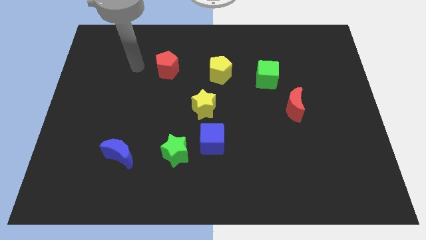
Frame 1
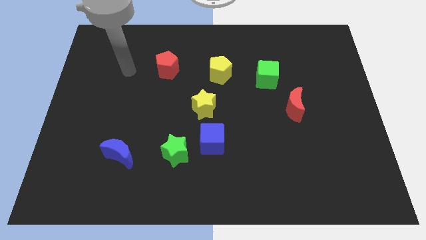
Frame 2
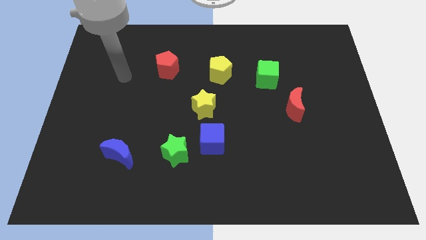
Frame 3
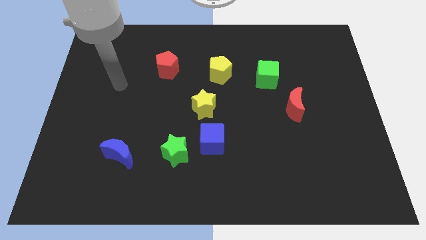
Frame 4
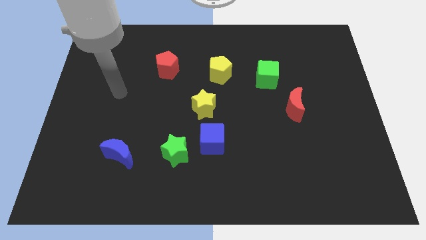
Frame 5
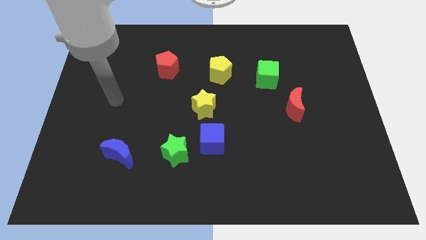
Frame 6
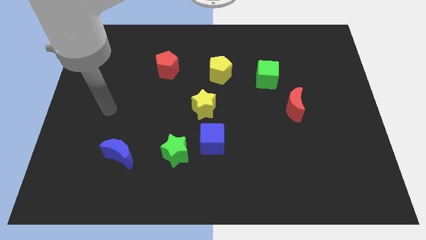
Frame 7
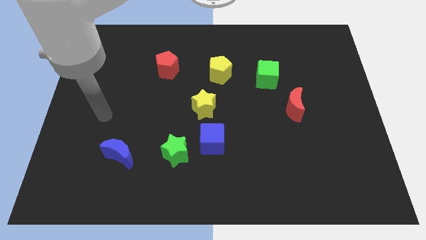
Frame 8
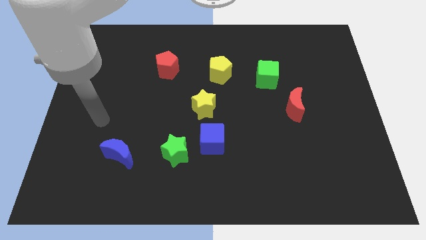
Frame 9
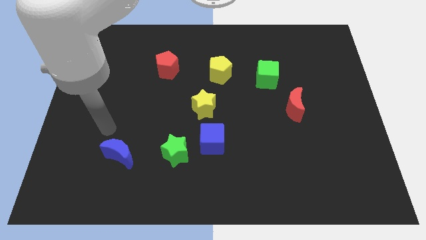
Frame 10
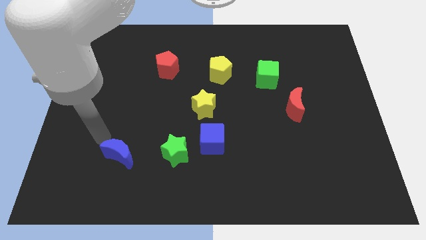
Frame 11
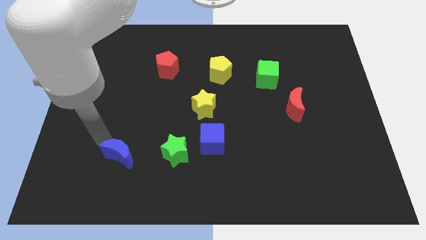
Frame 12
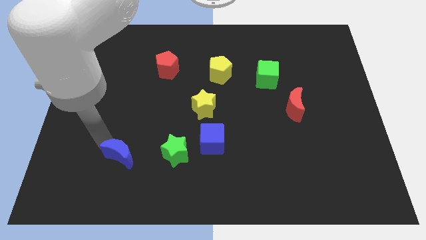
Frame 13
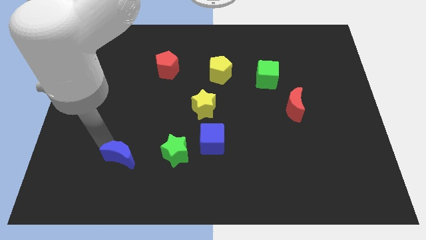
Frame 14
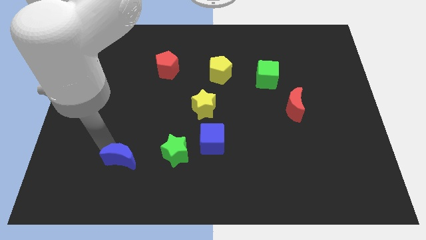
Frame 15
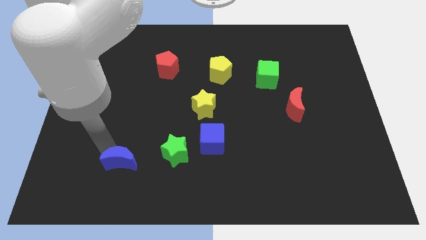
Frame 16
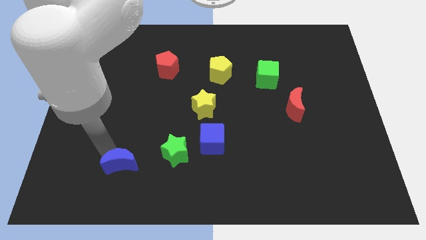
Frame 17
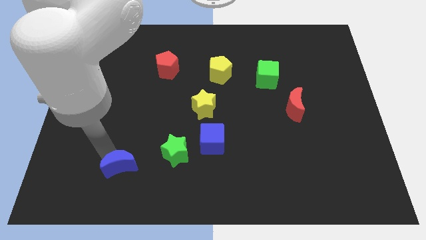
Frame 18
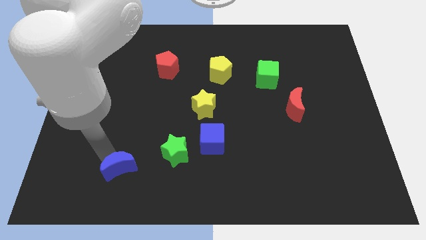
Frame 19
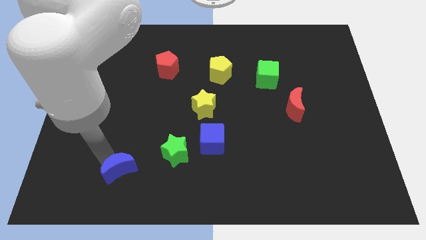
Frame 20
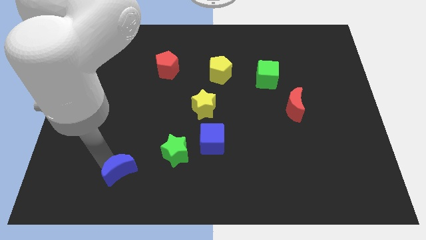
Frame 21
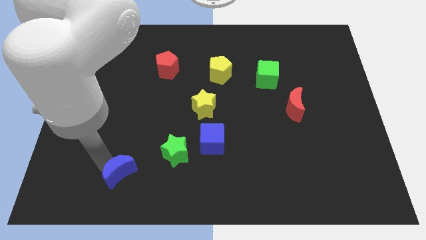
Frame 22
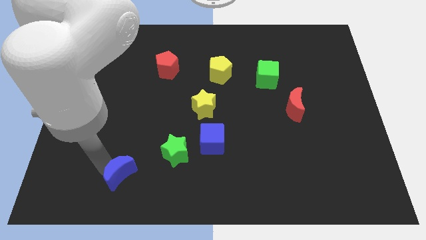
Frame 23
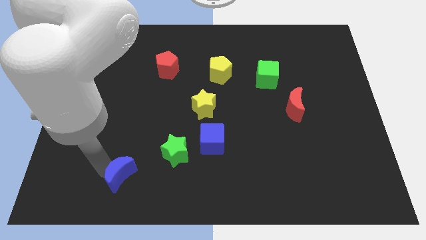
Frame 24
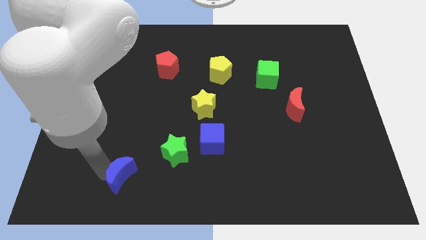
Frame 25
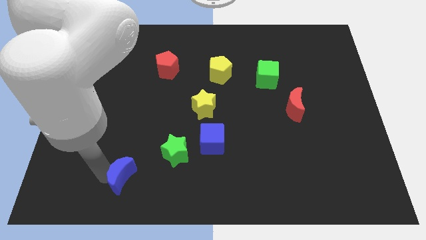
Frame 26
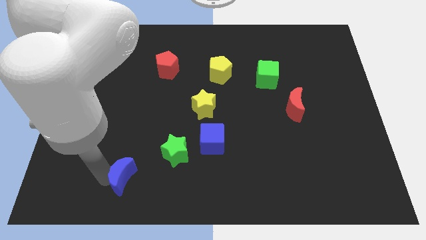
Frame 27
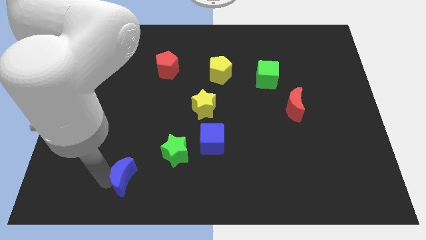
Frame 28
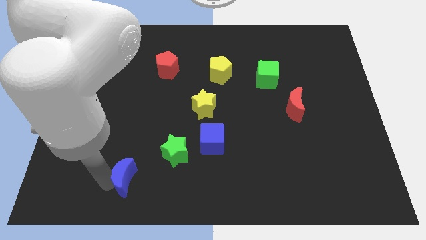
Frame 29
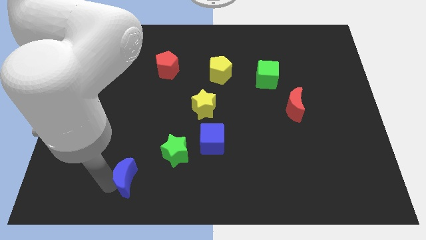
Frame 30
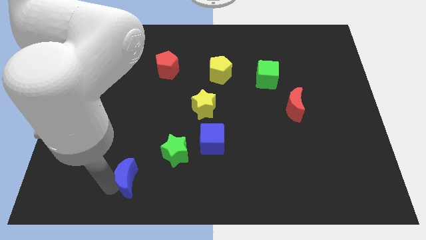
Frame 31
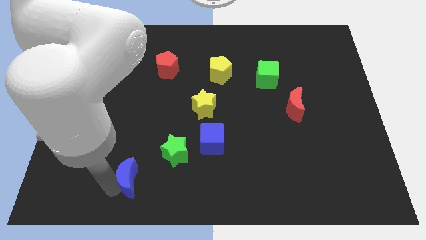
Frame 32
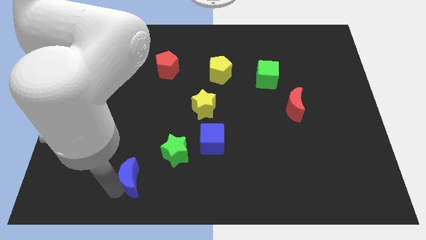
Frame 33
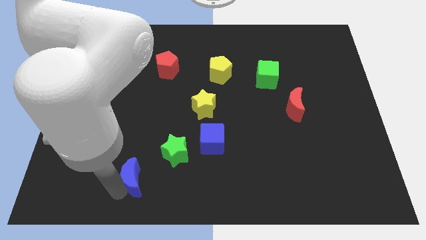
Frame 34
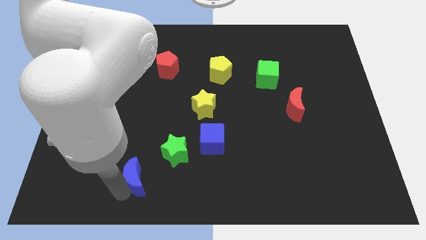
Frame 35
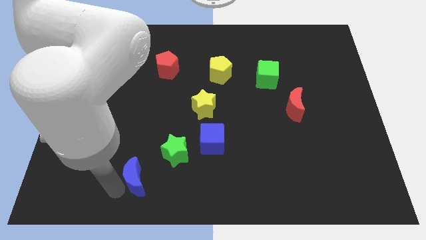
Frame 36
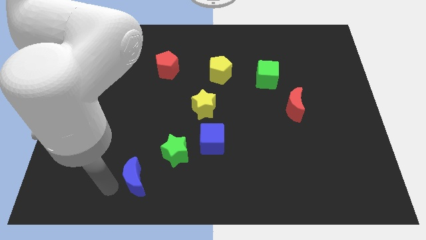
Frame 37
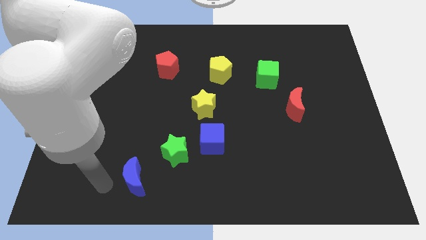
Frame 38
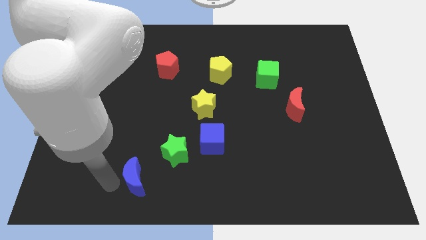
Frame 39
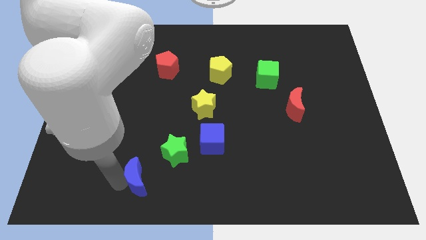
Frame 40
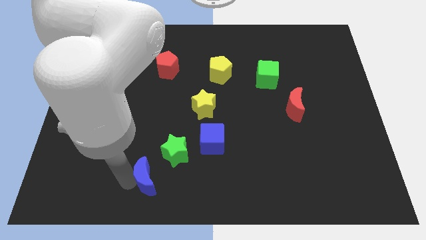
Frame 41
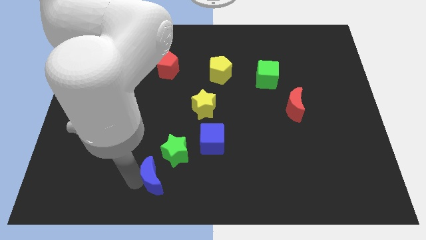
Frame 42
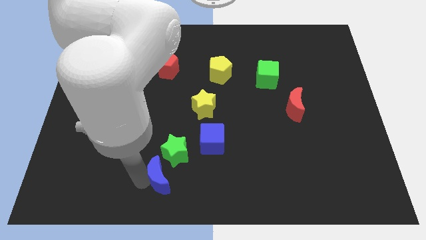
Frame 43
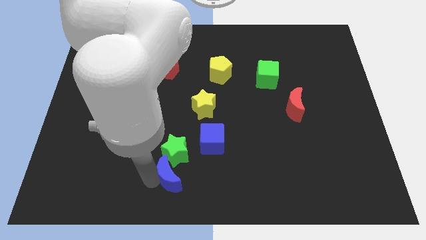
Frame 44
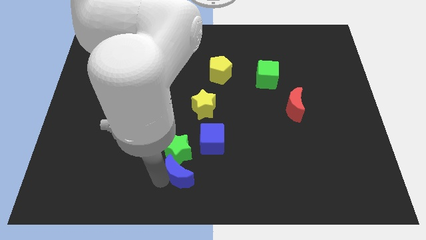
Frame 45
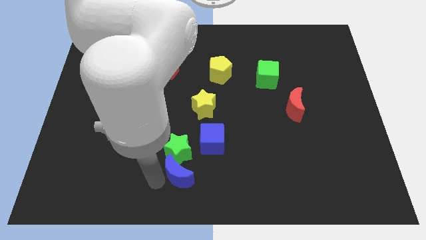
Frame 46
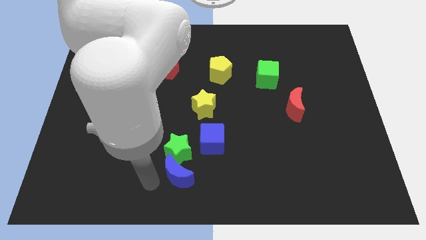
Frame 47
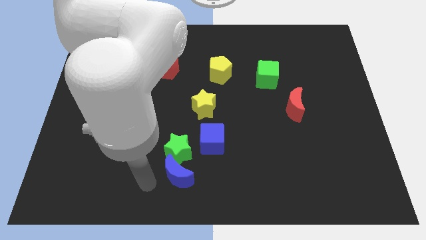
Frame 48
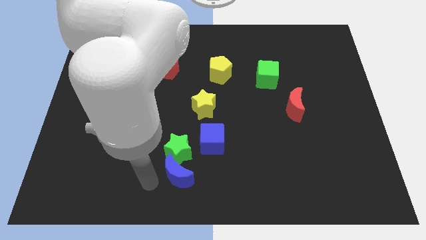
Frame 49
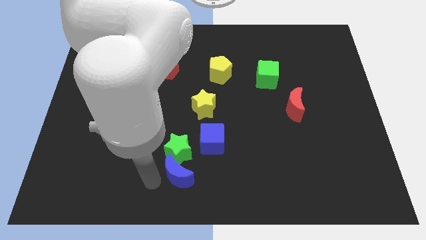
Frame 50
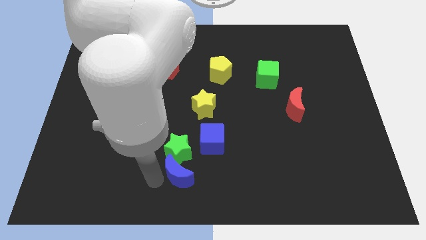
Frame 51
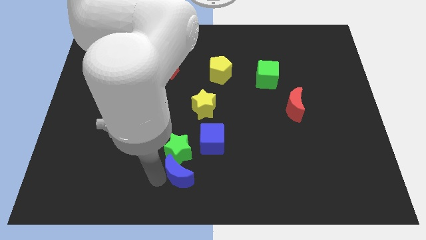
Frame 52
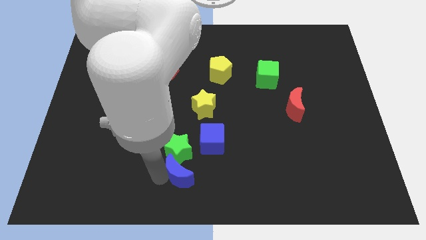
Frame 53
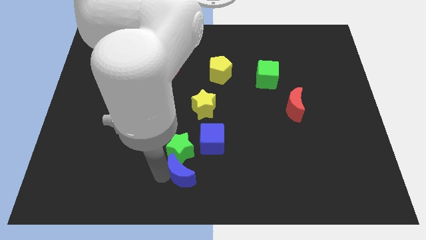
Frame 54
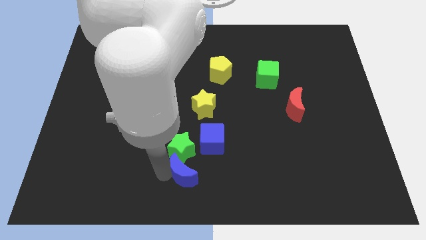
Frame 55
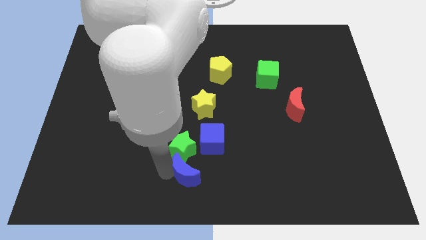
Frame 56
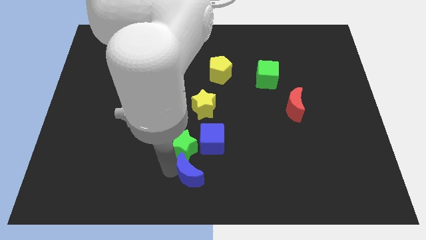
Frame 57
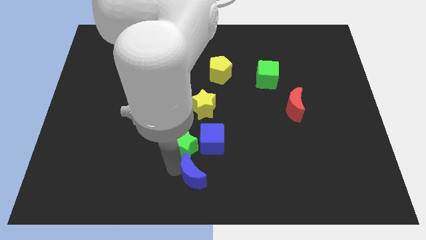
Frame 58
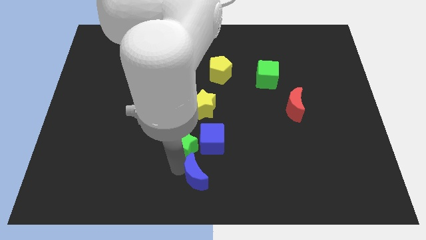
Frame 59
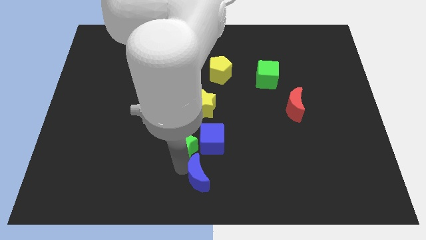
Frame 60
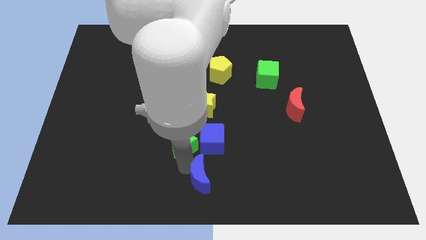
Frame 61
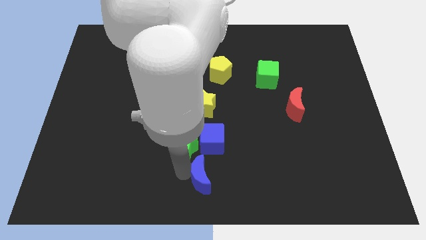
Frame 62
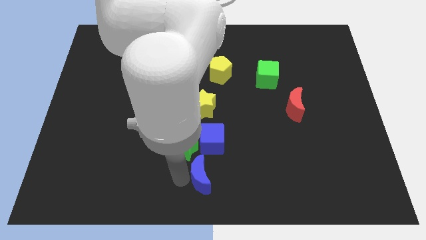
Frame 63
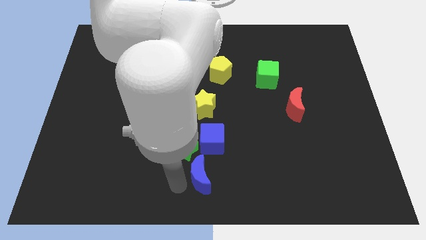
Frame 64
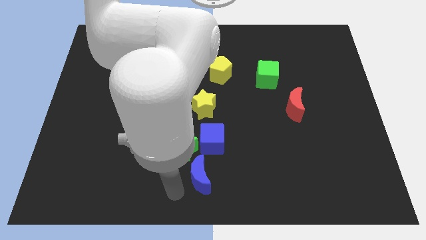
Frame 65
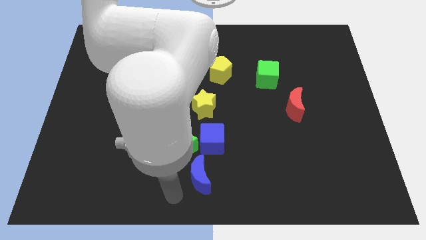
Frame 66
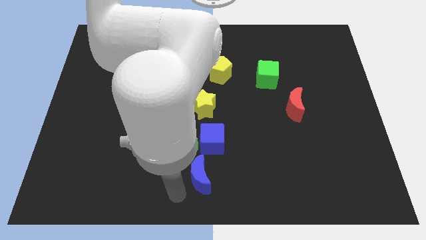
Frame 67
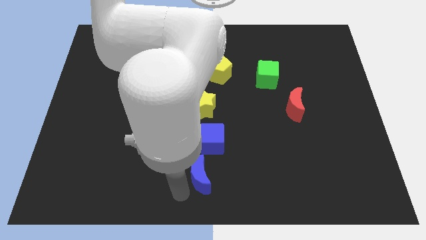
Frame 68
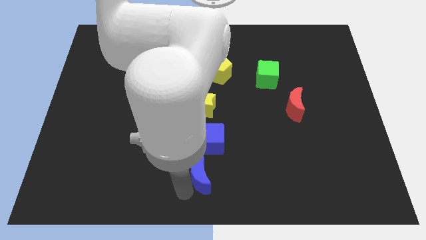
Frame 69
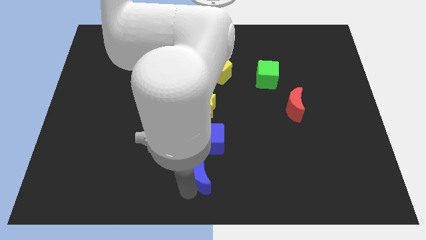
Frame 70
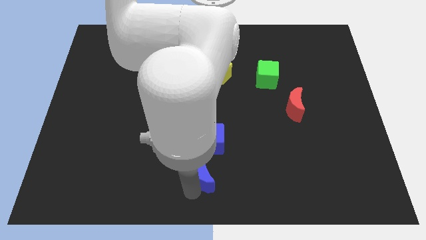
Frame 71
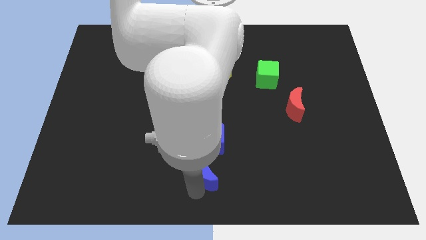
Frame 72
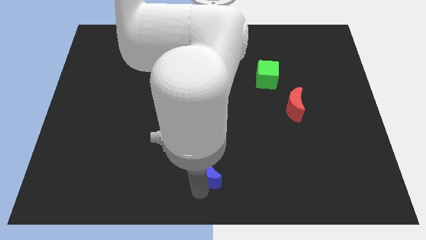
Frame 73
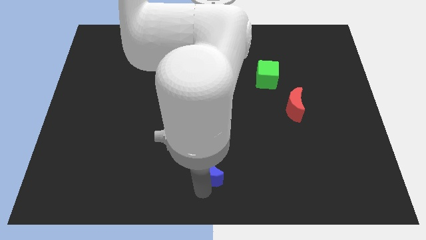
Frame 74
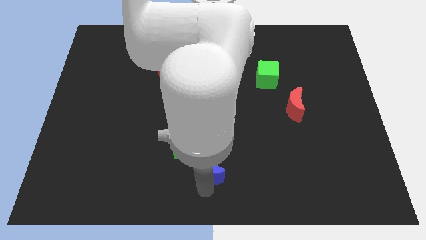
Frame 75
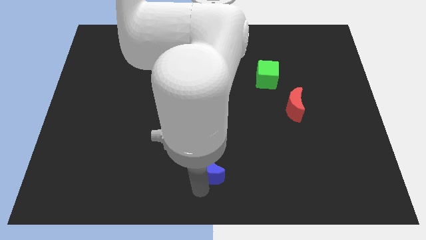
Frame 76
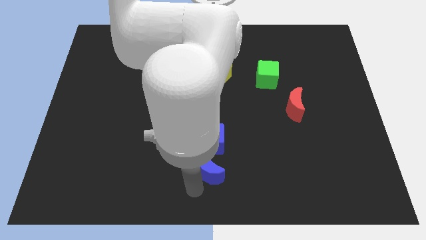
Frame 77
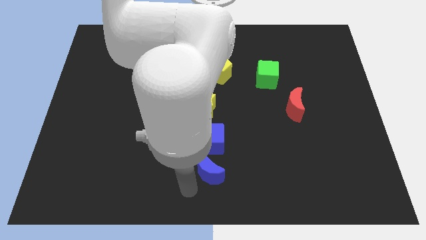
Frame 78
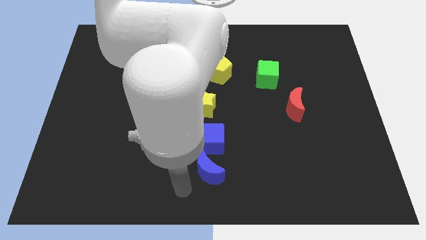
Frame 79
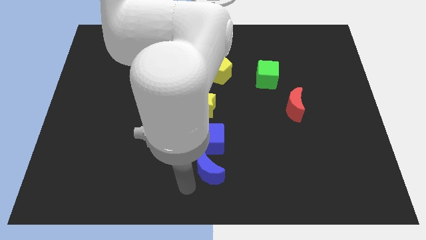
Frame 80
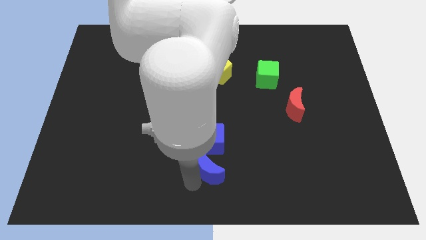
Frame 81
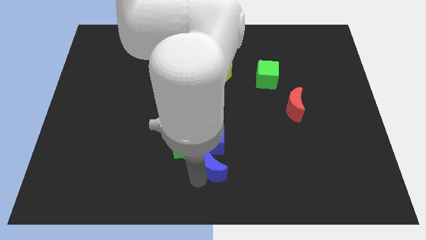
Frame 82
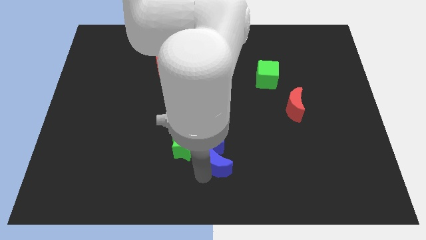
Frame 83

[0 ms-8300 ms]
push the blue moon right
